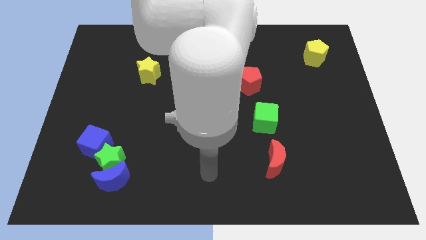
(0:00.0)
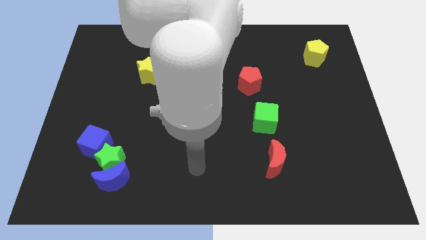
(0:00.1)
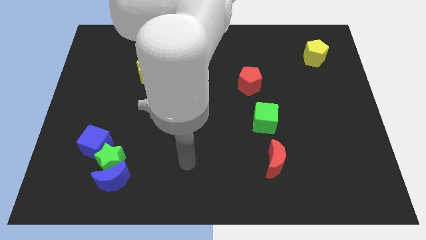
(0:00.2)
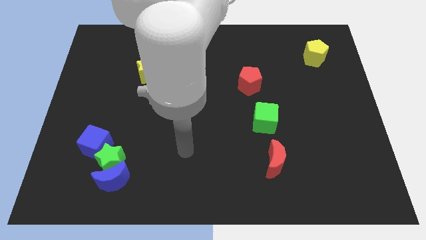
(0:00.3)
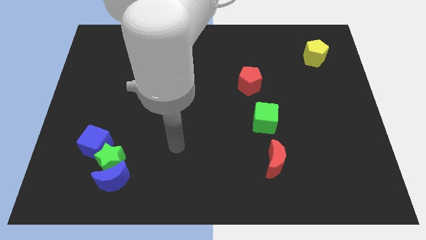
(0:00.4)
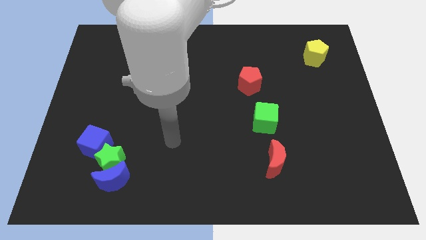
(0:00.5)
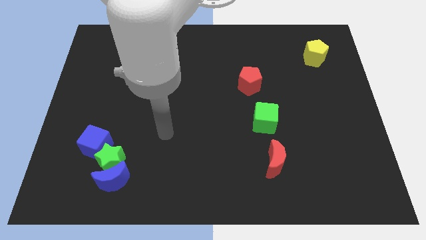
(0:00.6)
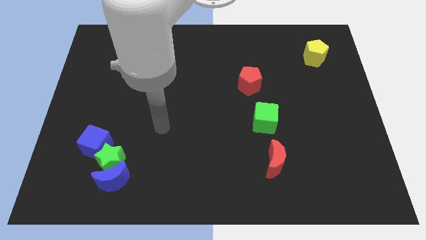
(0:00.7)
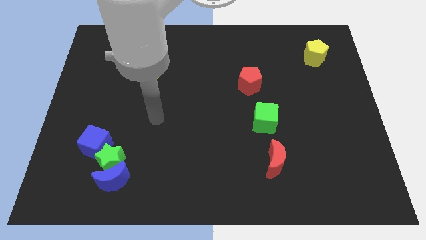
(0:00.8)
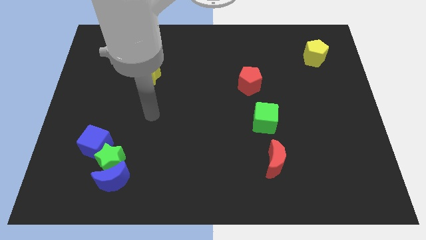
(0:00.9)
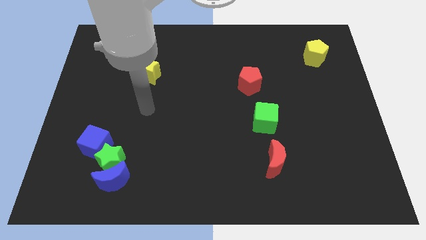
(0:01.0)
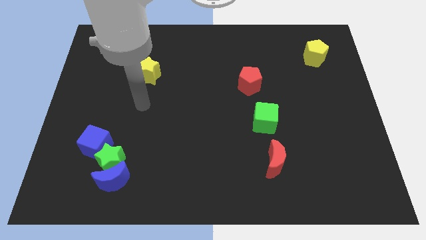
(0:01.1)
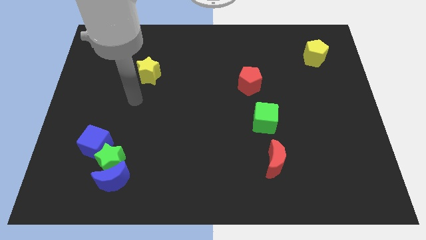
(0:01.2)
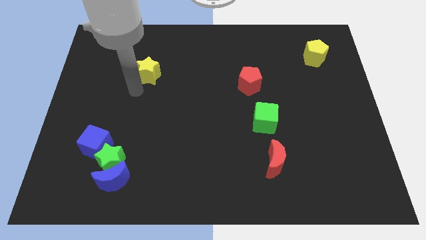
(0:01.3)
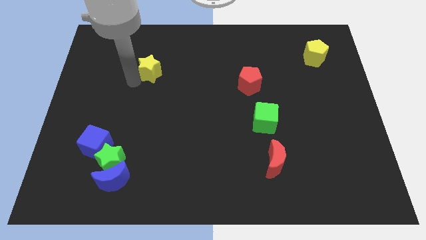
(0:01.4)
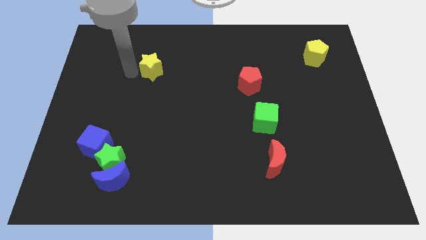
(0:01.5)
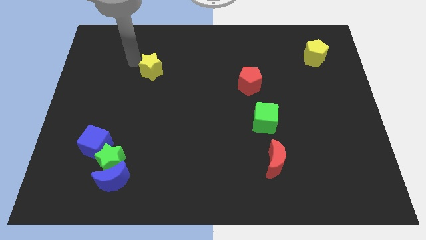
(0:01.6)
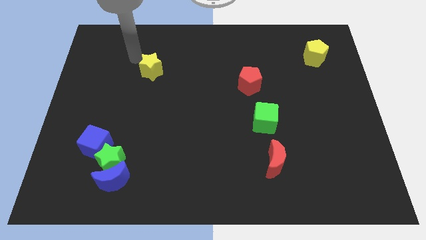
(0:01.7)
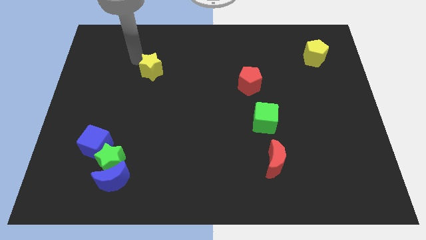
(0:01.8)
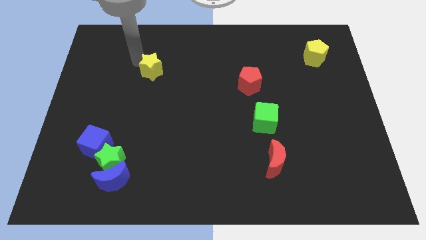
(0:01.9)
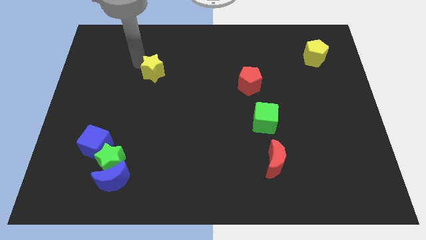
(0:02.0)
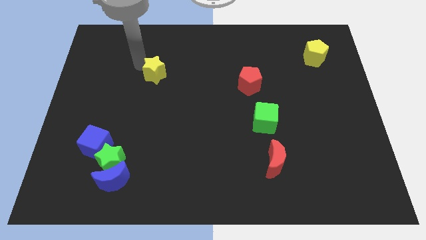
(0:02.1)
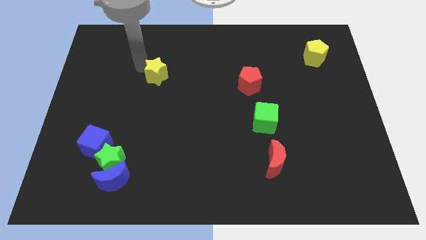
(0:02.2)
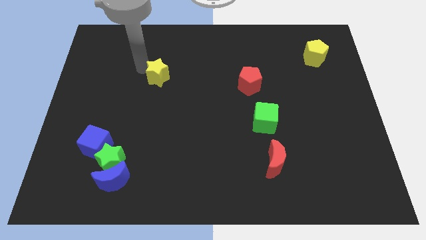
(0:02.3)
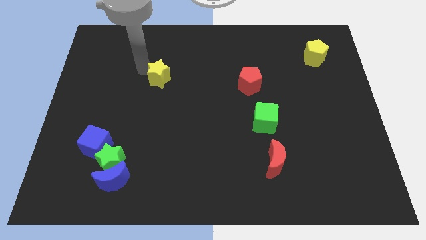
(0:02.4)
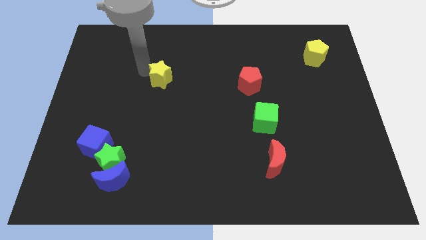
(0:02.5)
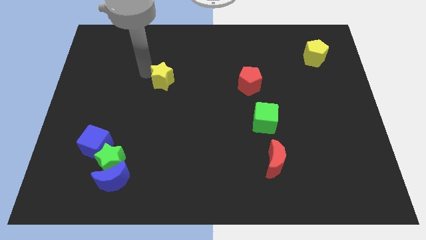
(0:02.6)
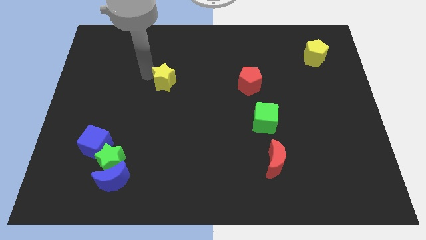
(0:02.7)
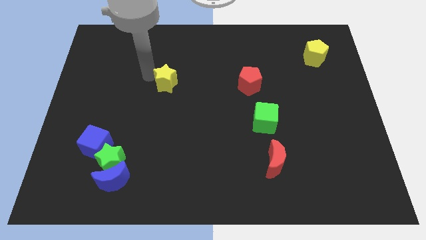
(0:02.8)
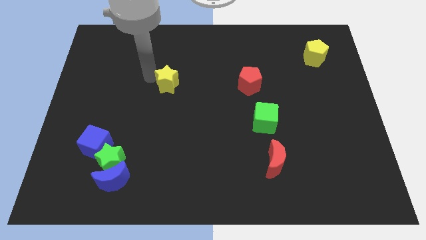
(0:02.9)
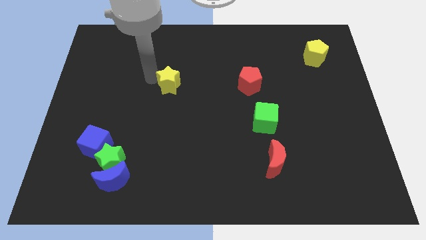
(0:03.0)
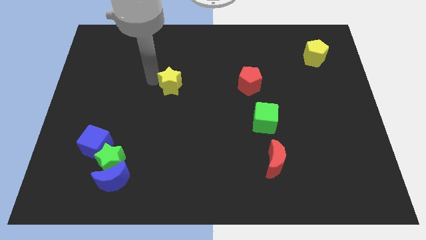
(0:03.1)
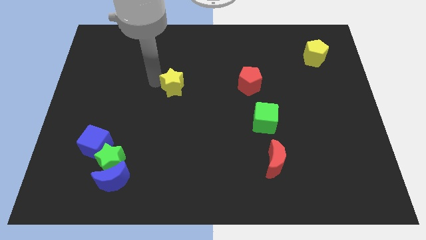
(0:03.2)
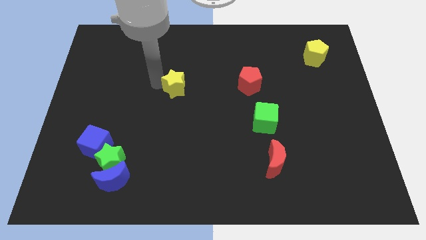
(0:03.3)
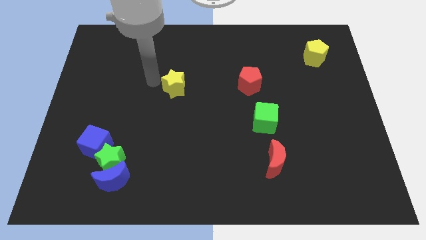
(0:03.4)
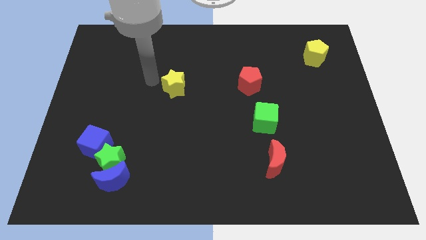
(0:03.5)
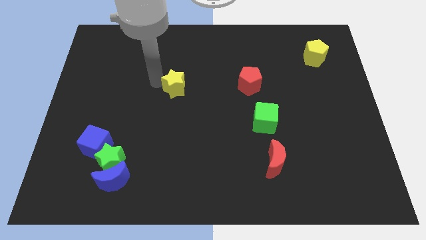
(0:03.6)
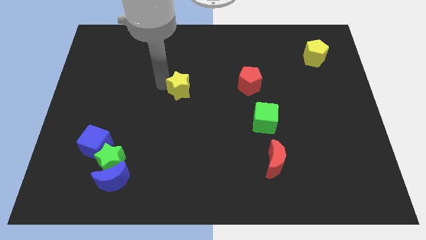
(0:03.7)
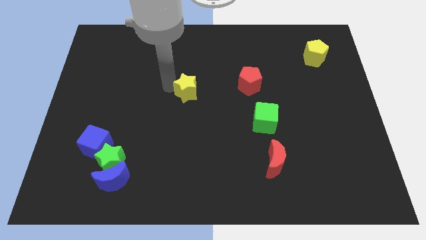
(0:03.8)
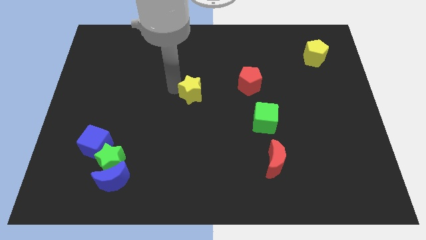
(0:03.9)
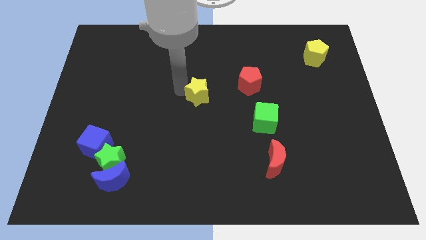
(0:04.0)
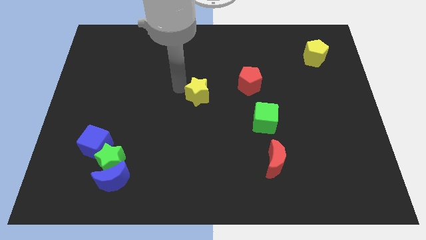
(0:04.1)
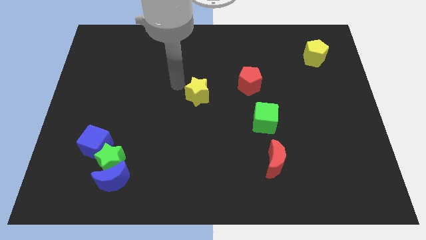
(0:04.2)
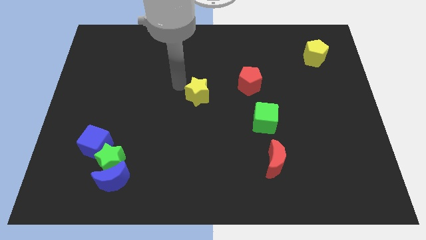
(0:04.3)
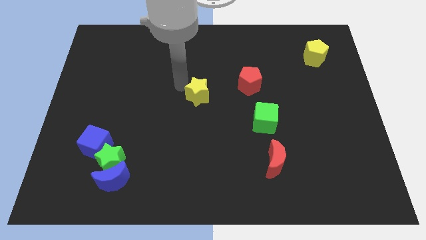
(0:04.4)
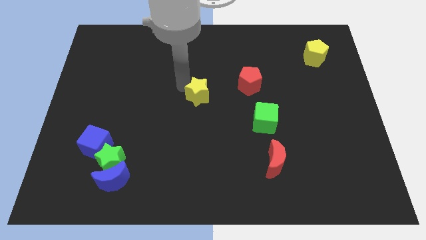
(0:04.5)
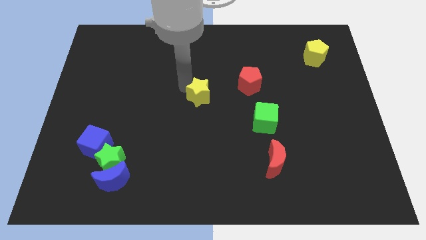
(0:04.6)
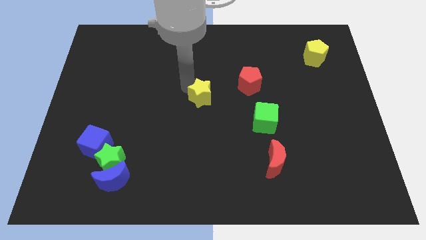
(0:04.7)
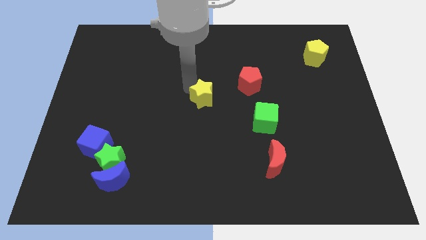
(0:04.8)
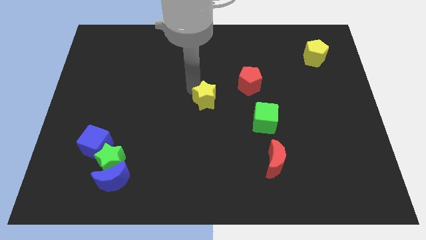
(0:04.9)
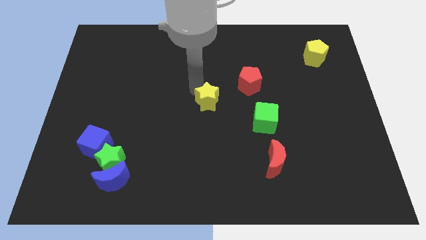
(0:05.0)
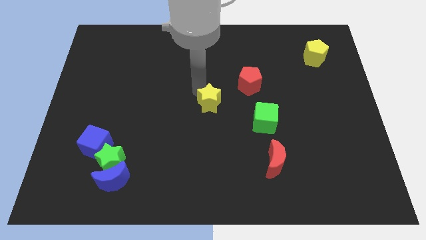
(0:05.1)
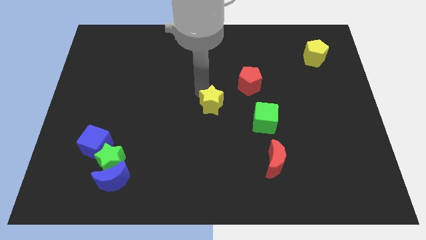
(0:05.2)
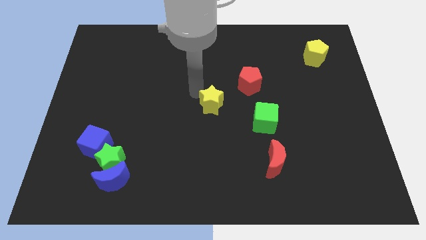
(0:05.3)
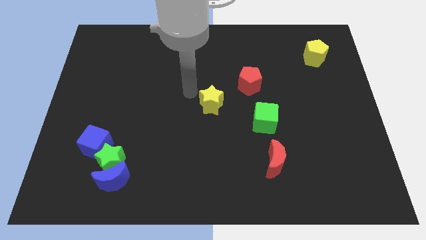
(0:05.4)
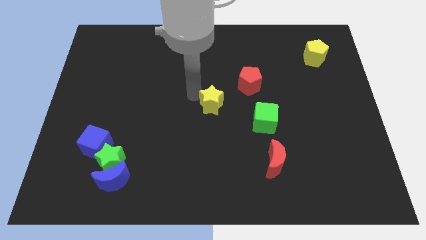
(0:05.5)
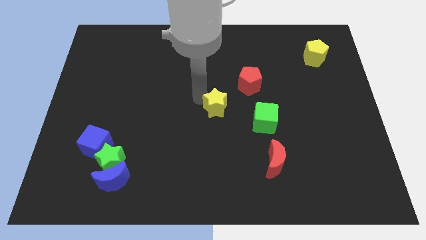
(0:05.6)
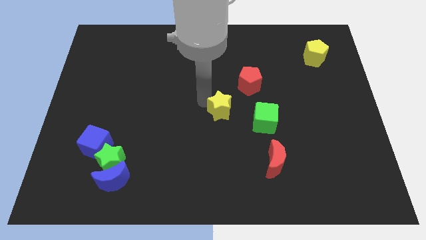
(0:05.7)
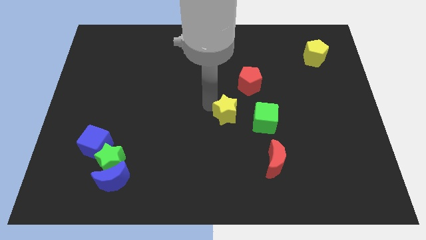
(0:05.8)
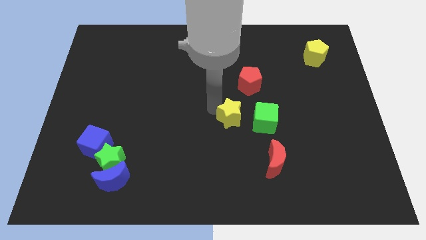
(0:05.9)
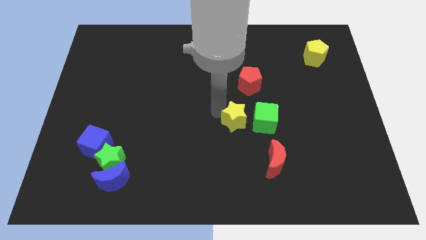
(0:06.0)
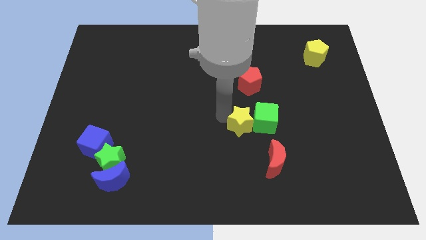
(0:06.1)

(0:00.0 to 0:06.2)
move the yellow star to the green cube

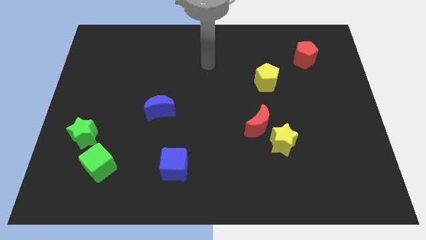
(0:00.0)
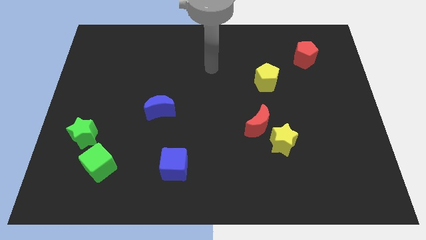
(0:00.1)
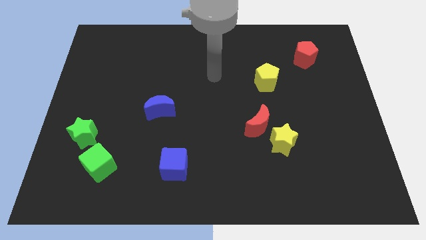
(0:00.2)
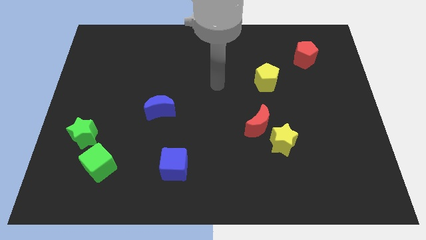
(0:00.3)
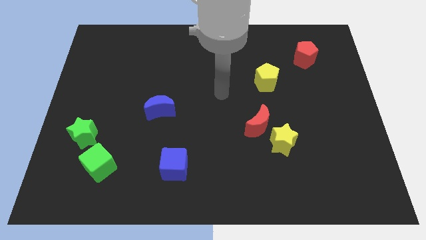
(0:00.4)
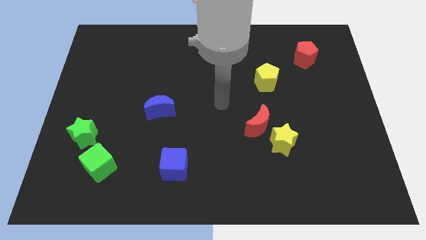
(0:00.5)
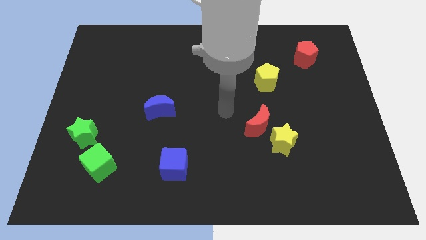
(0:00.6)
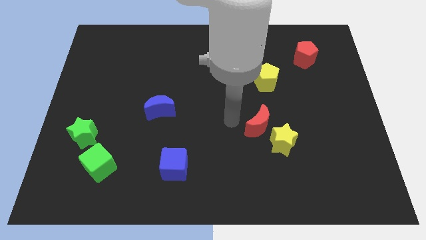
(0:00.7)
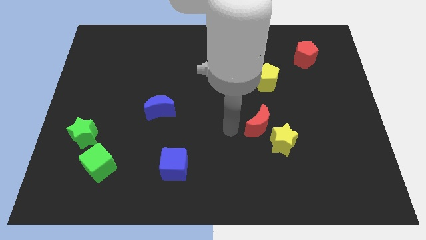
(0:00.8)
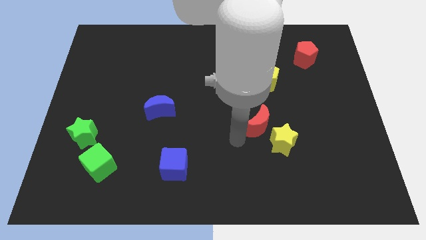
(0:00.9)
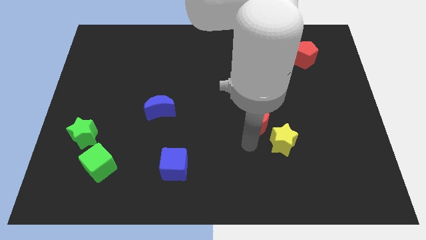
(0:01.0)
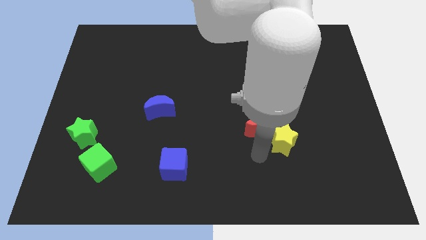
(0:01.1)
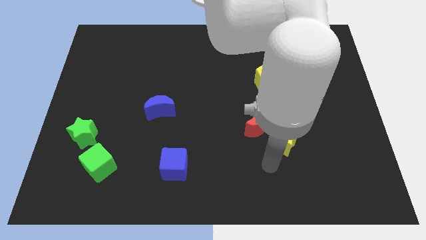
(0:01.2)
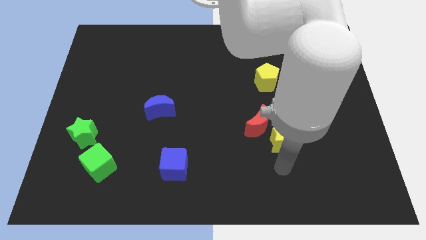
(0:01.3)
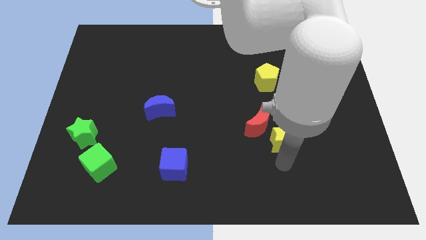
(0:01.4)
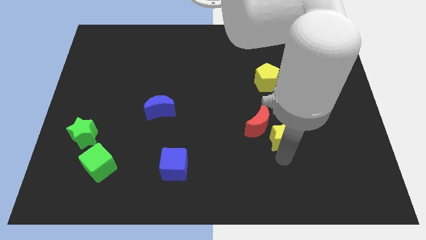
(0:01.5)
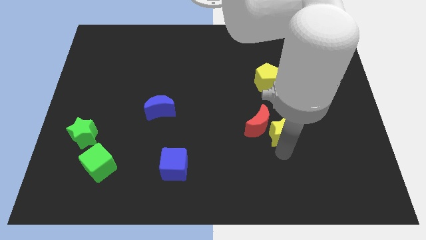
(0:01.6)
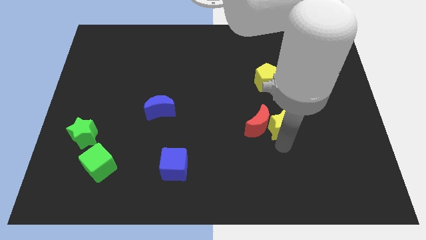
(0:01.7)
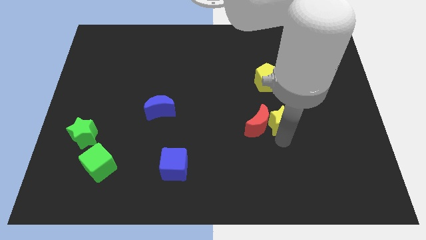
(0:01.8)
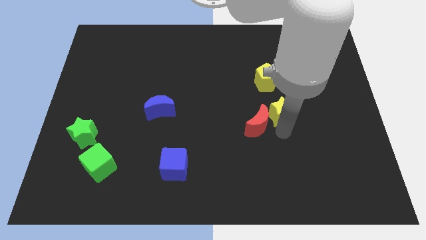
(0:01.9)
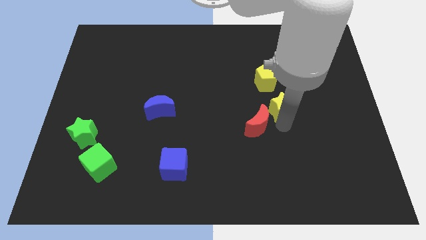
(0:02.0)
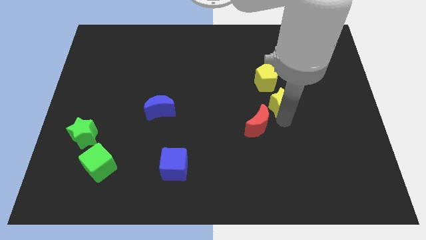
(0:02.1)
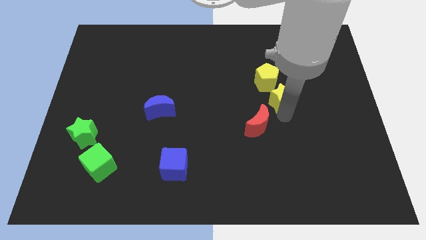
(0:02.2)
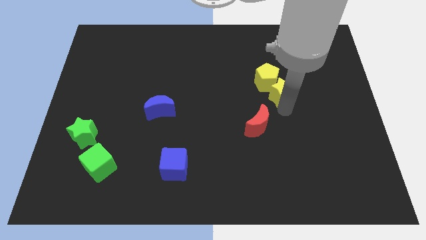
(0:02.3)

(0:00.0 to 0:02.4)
put the yellow star next to the yellow pentagon
